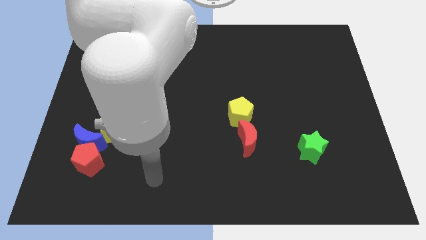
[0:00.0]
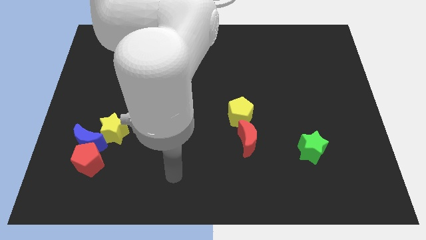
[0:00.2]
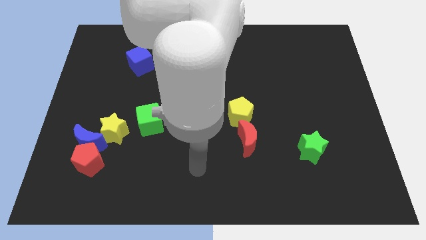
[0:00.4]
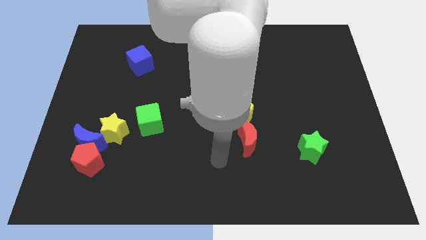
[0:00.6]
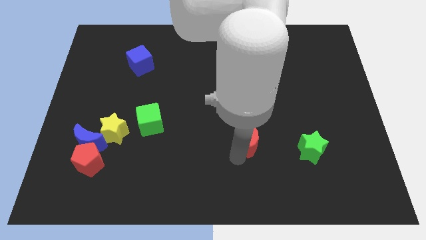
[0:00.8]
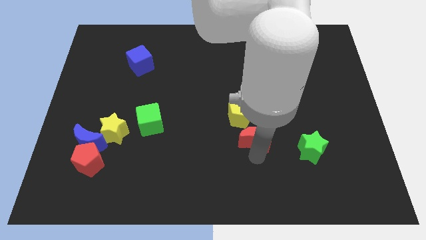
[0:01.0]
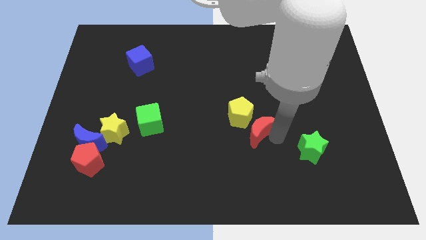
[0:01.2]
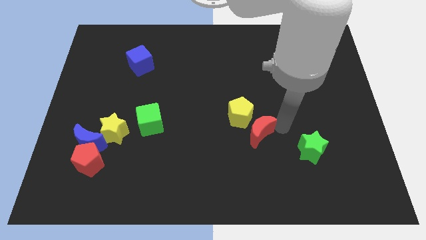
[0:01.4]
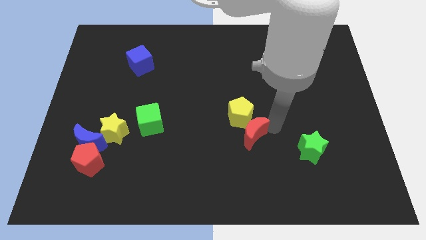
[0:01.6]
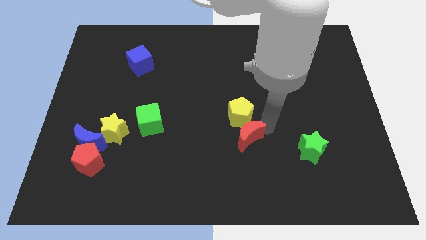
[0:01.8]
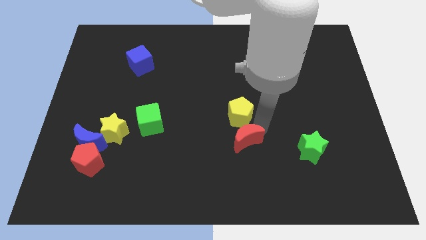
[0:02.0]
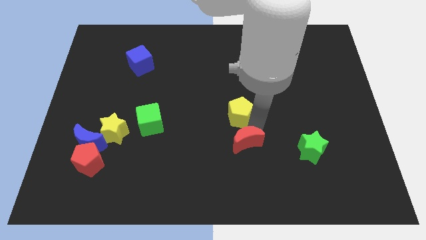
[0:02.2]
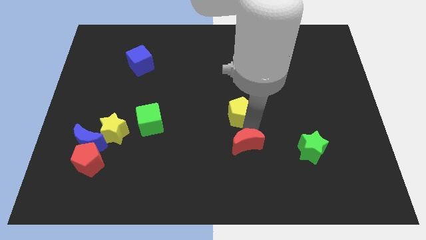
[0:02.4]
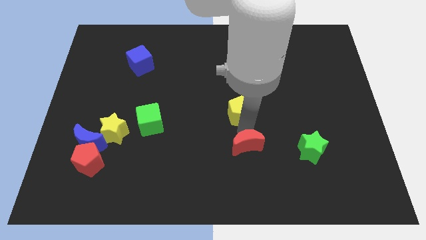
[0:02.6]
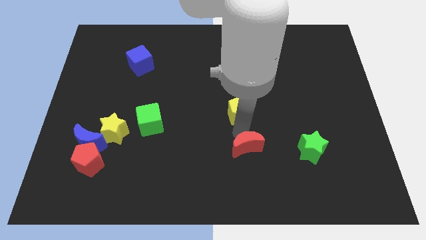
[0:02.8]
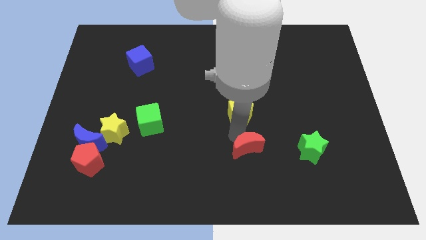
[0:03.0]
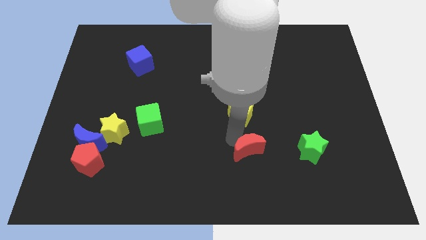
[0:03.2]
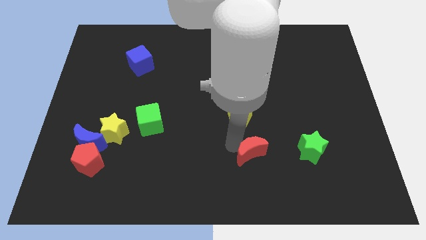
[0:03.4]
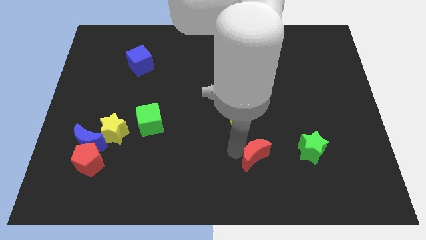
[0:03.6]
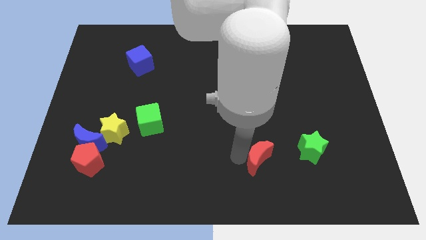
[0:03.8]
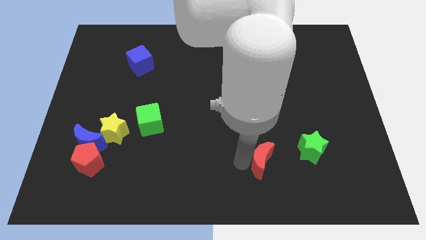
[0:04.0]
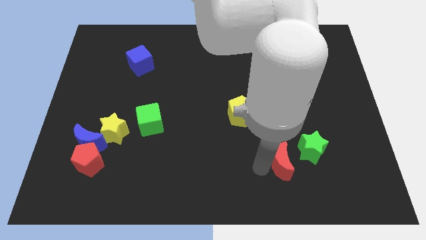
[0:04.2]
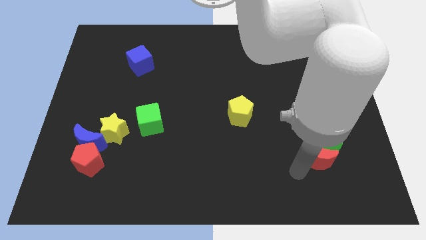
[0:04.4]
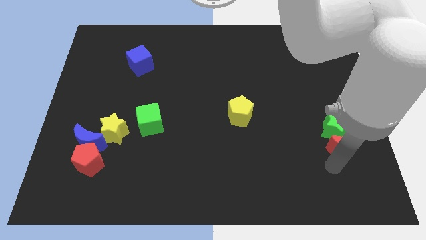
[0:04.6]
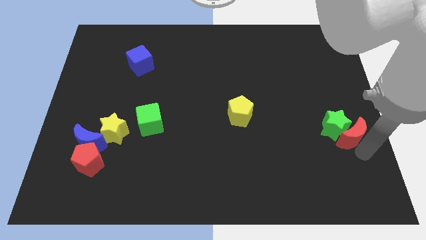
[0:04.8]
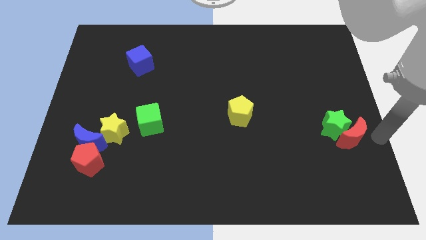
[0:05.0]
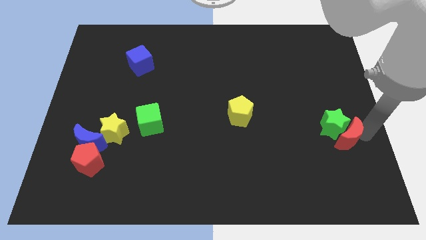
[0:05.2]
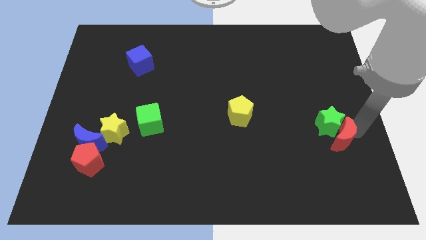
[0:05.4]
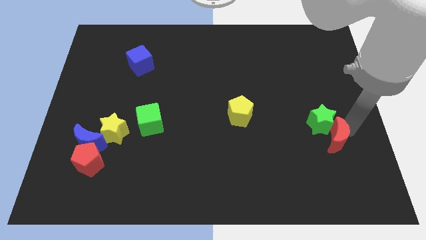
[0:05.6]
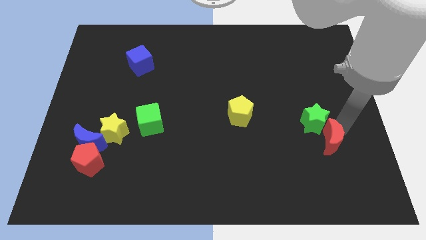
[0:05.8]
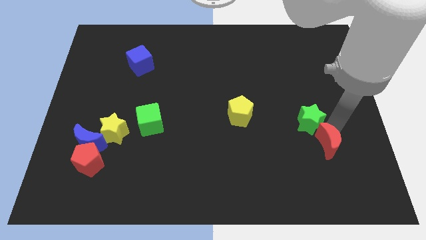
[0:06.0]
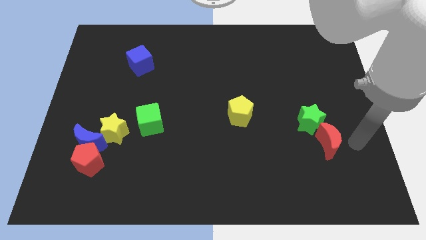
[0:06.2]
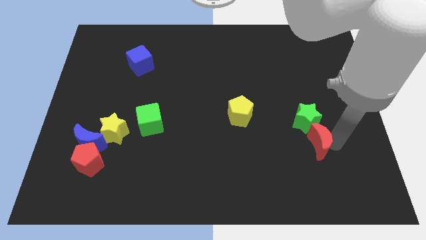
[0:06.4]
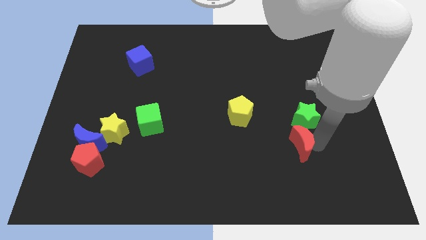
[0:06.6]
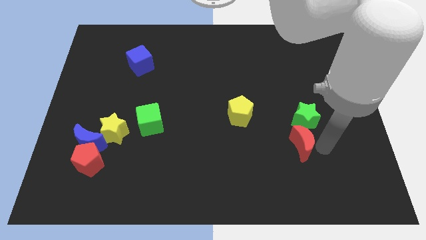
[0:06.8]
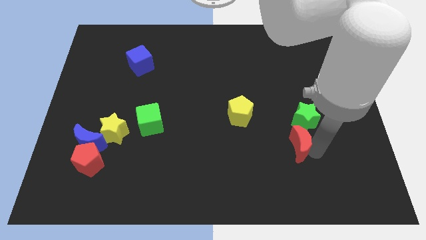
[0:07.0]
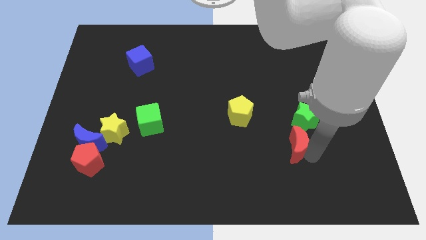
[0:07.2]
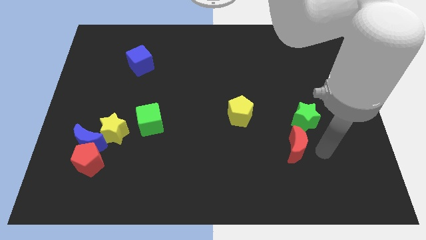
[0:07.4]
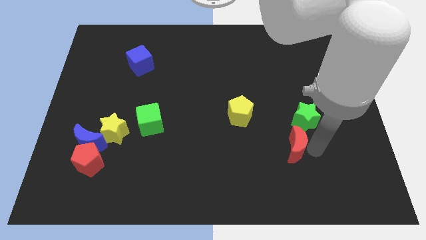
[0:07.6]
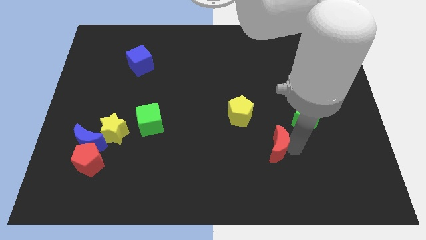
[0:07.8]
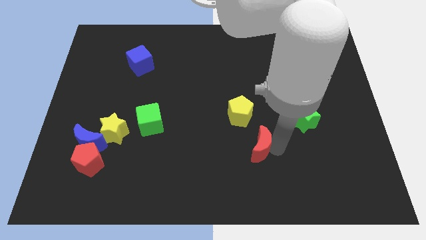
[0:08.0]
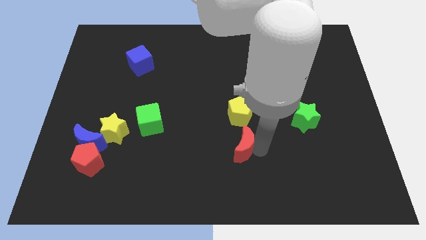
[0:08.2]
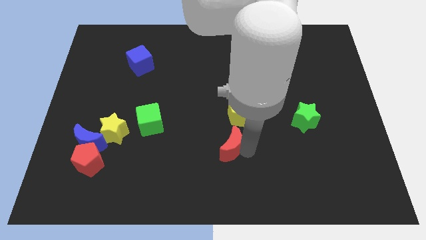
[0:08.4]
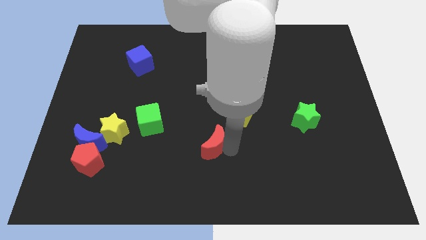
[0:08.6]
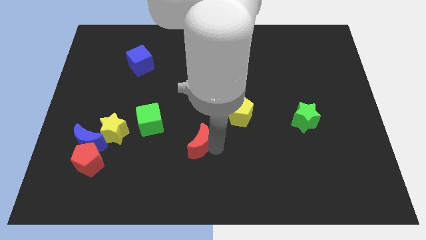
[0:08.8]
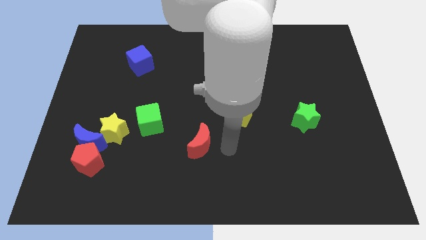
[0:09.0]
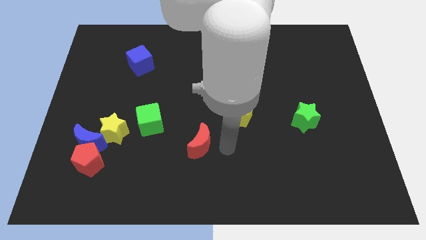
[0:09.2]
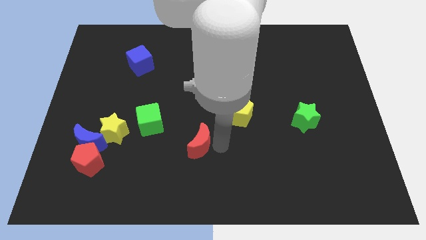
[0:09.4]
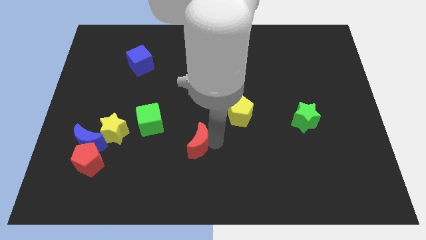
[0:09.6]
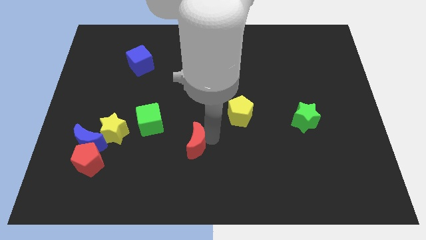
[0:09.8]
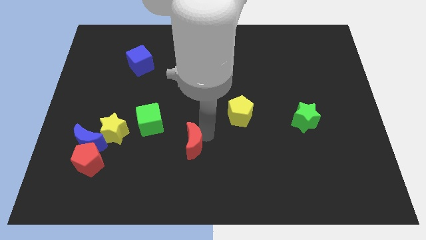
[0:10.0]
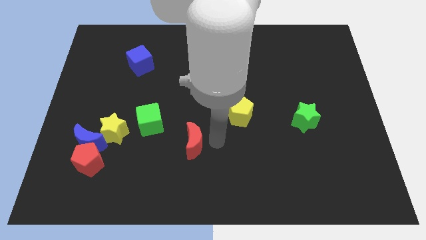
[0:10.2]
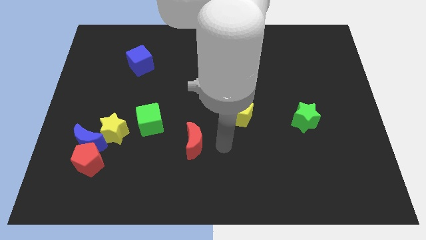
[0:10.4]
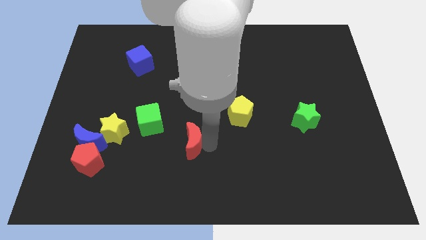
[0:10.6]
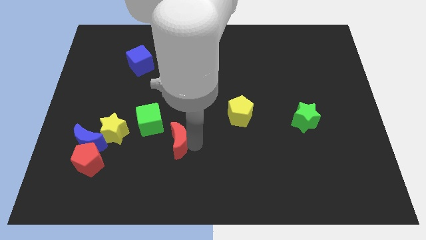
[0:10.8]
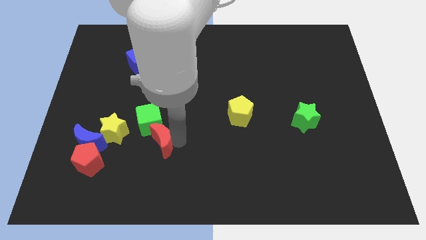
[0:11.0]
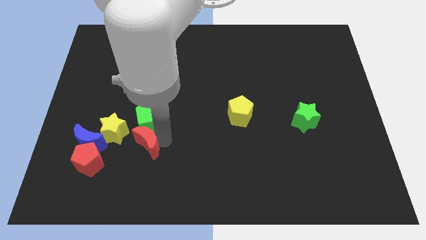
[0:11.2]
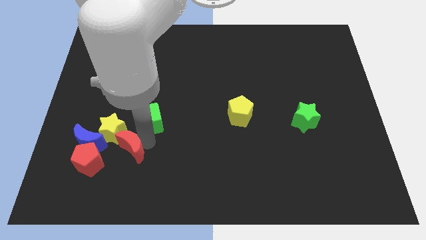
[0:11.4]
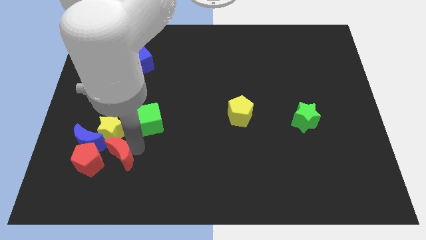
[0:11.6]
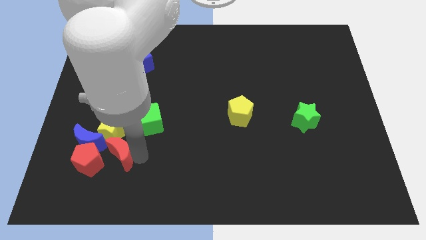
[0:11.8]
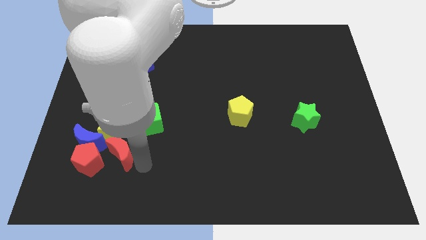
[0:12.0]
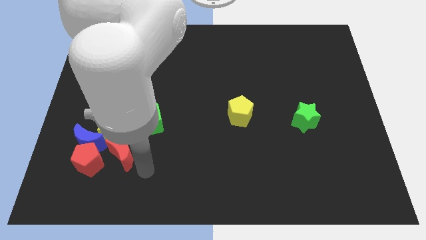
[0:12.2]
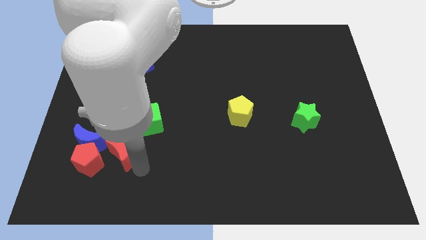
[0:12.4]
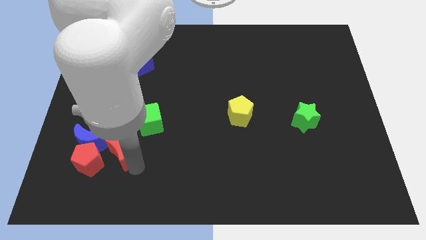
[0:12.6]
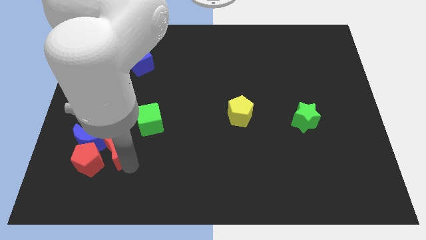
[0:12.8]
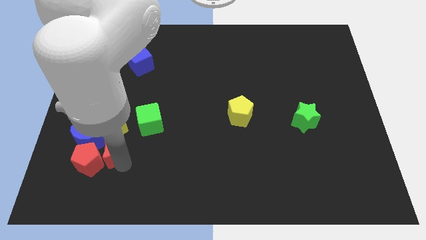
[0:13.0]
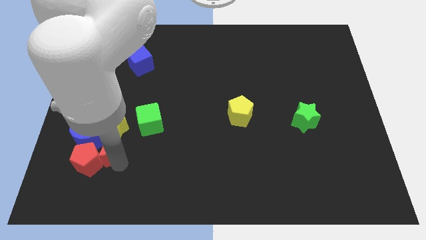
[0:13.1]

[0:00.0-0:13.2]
move the red moon close to the blue moon
